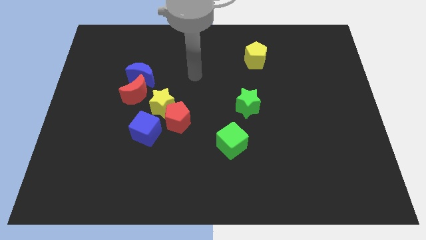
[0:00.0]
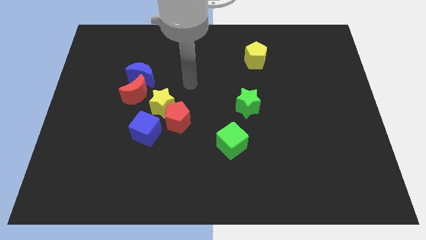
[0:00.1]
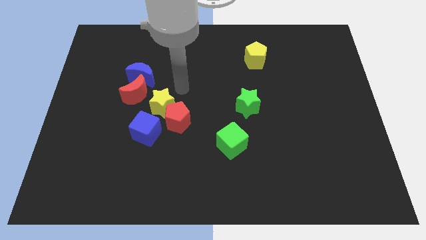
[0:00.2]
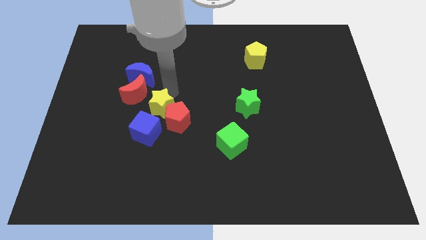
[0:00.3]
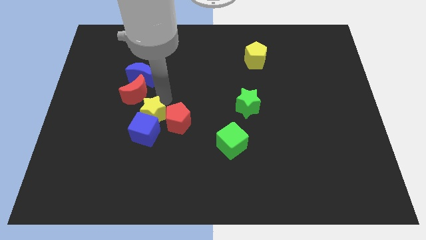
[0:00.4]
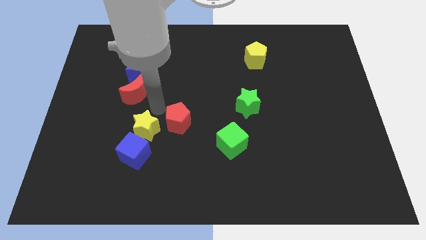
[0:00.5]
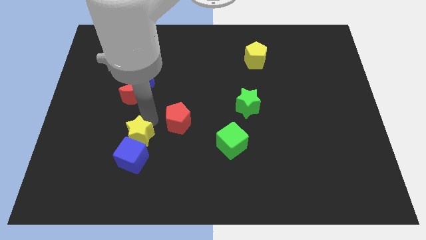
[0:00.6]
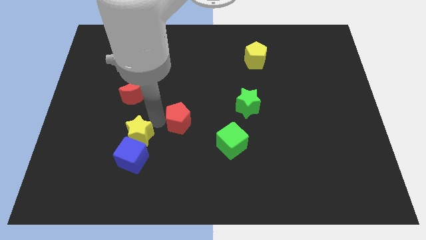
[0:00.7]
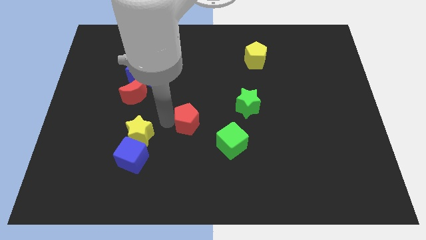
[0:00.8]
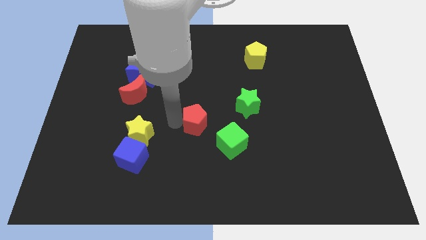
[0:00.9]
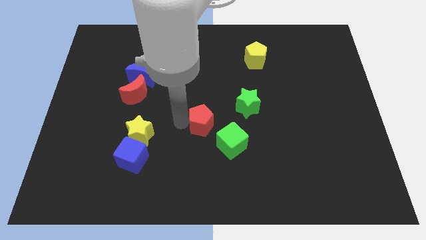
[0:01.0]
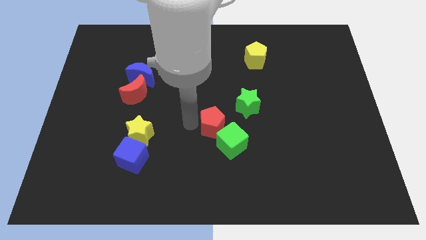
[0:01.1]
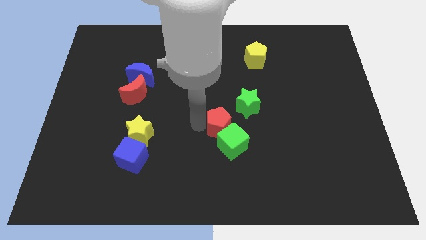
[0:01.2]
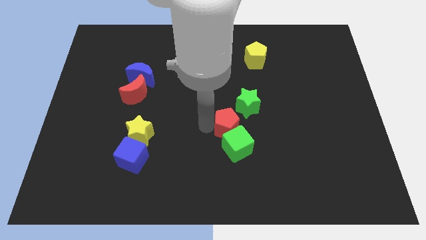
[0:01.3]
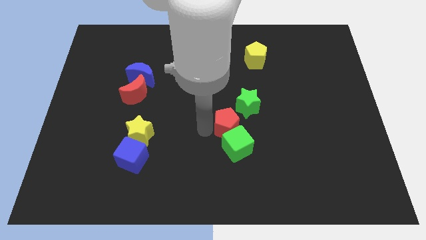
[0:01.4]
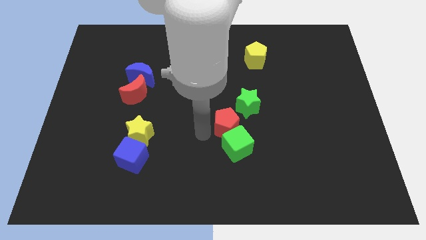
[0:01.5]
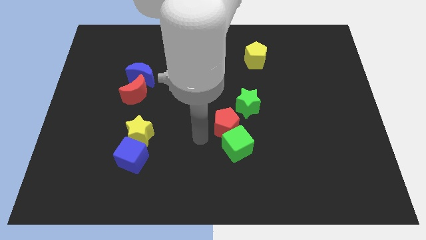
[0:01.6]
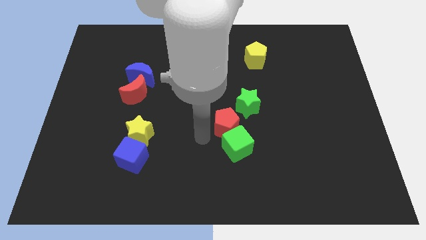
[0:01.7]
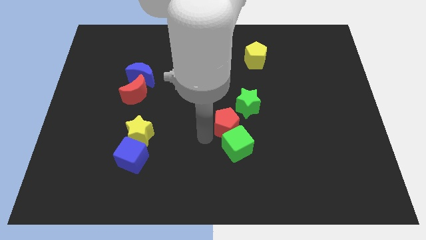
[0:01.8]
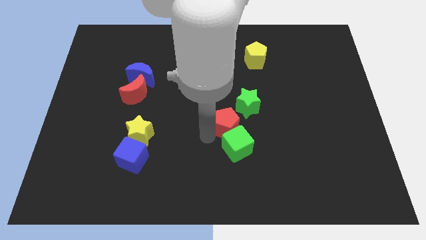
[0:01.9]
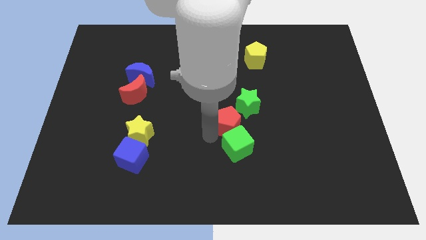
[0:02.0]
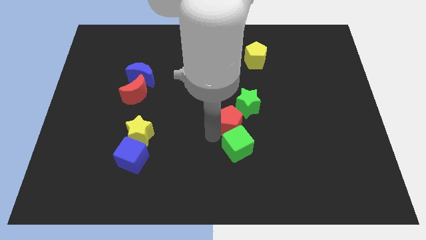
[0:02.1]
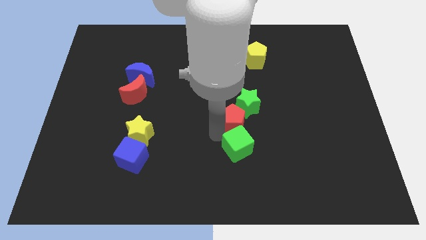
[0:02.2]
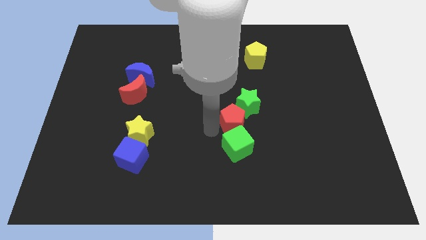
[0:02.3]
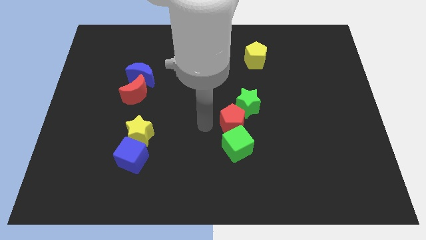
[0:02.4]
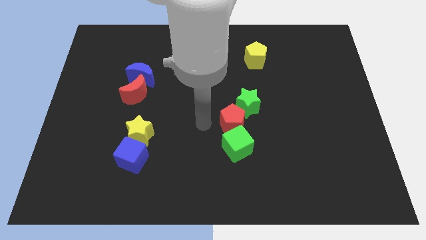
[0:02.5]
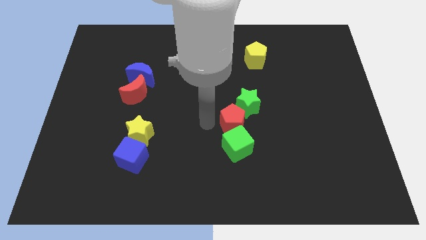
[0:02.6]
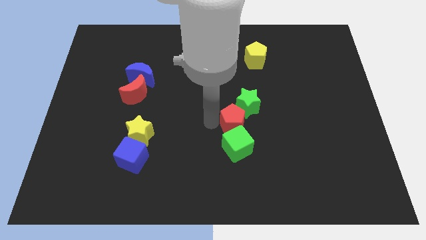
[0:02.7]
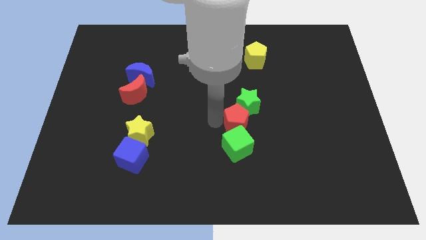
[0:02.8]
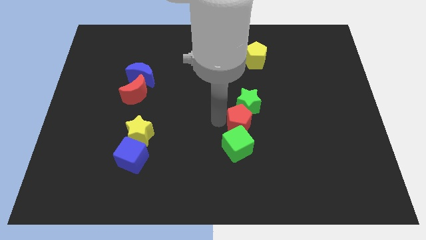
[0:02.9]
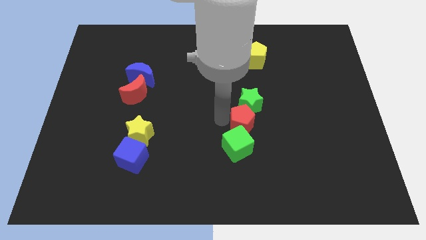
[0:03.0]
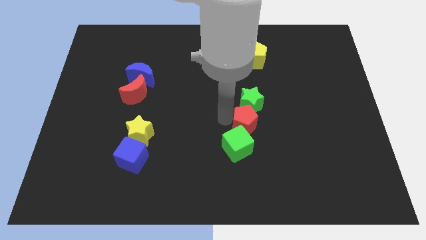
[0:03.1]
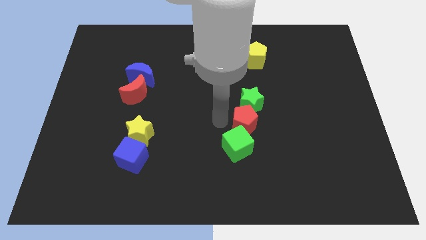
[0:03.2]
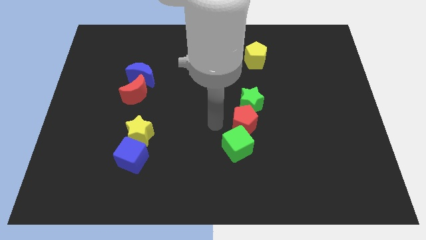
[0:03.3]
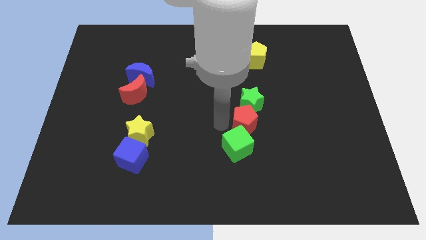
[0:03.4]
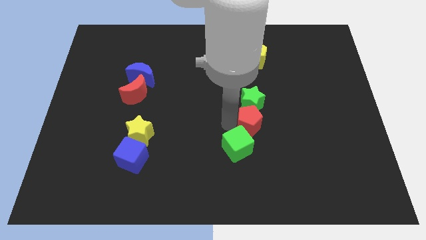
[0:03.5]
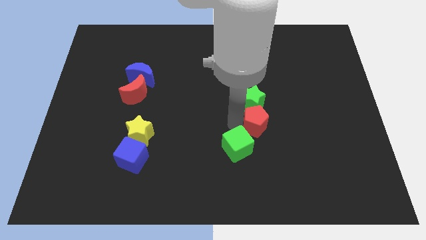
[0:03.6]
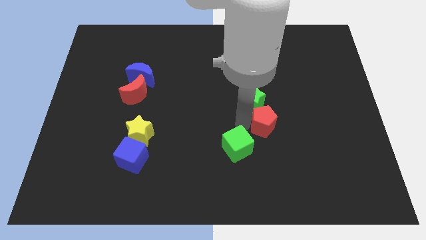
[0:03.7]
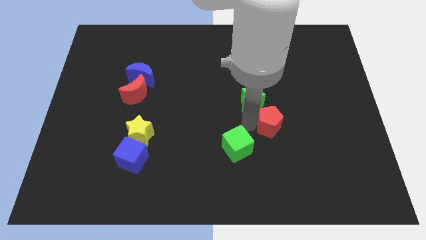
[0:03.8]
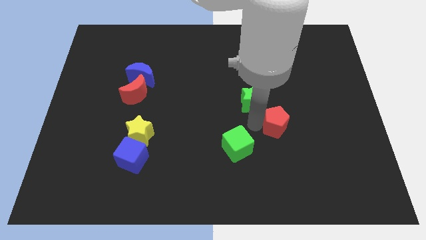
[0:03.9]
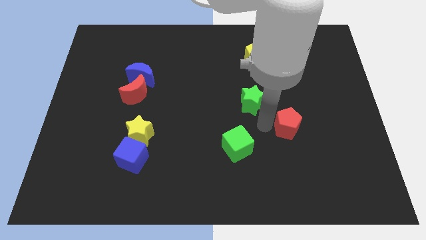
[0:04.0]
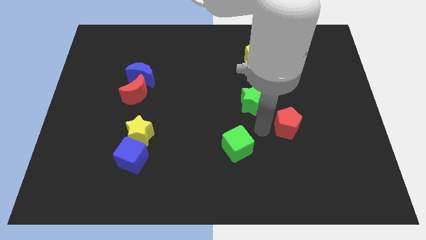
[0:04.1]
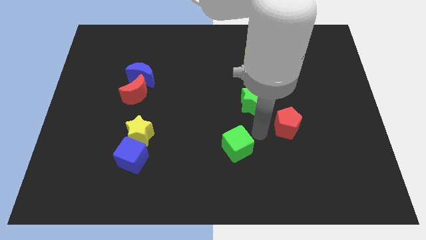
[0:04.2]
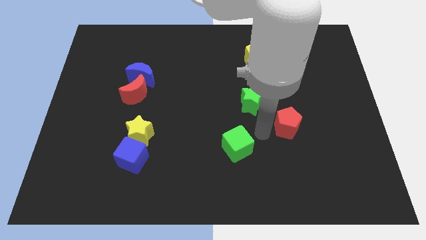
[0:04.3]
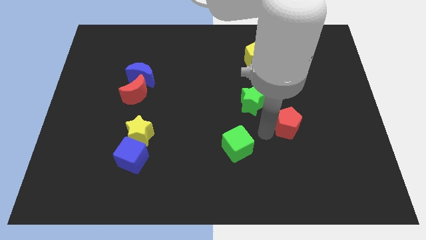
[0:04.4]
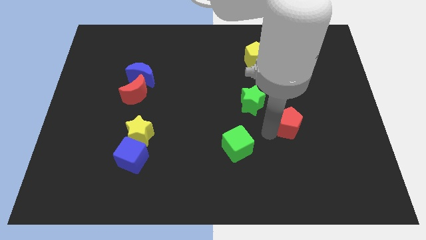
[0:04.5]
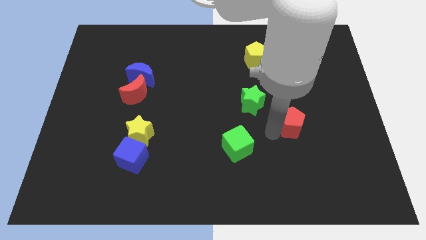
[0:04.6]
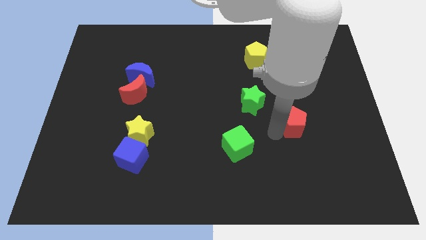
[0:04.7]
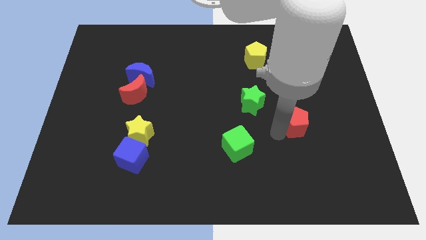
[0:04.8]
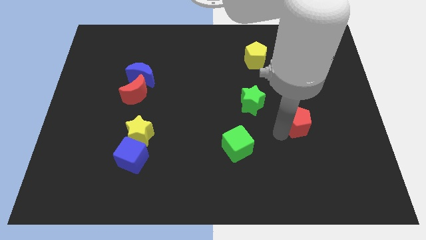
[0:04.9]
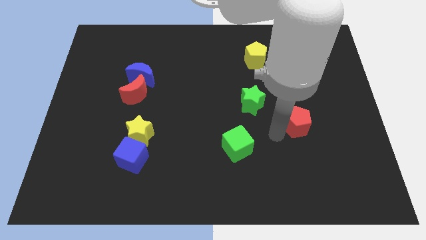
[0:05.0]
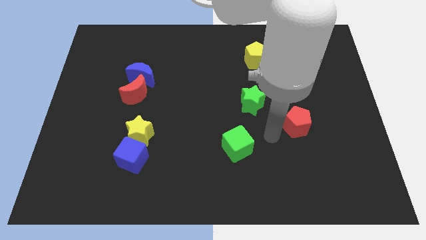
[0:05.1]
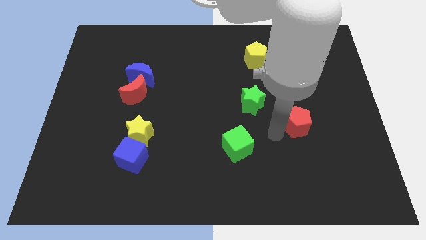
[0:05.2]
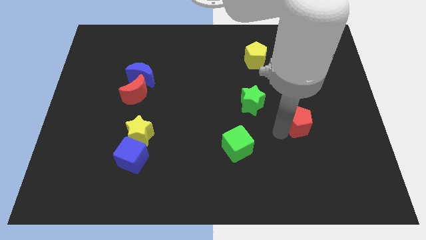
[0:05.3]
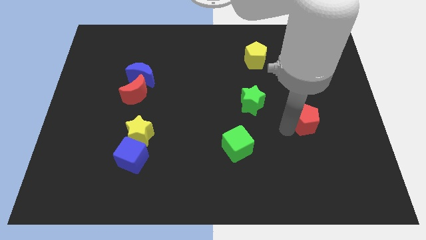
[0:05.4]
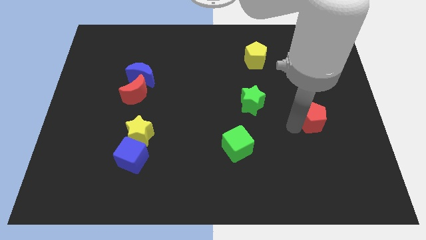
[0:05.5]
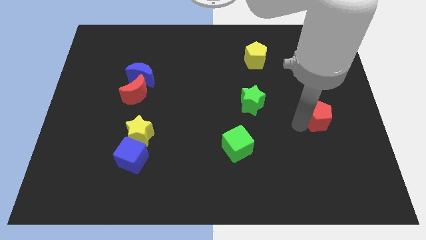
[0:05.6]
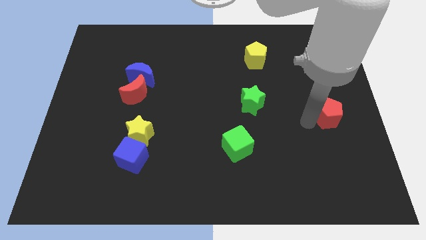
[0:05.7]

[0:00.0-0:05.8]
slide the red pentagon to the right side

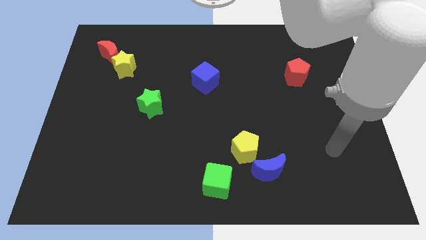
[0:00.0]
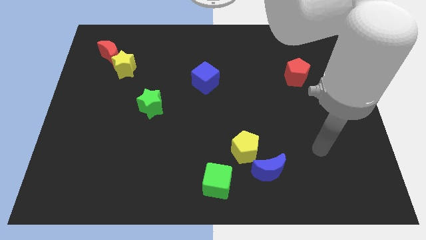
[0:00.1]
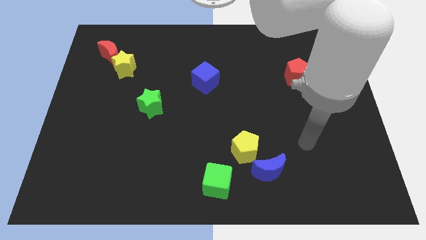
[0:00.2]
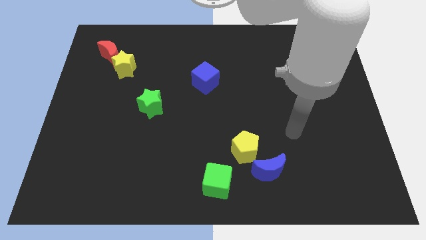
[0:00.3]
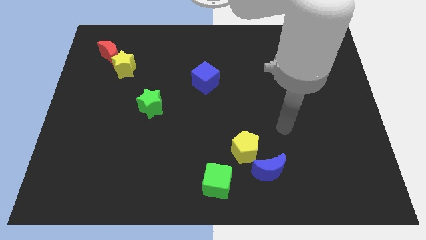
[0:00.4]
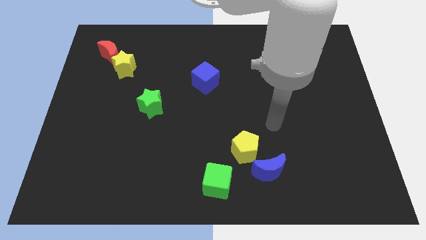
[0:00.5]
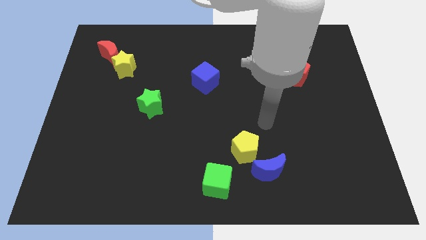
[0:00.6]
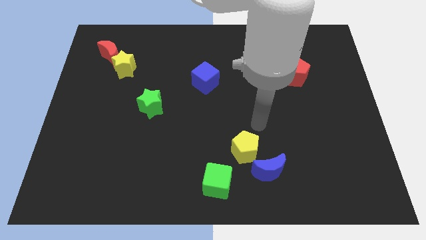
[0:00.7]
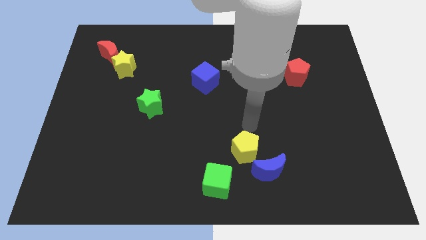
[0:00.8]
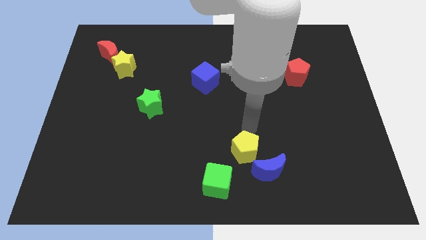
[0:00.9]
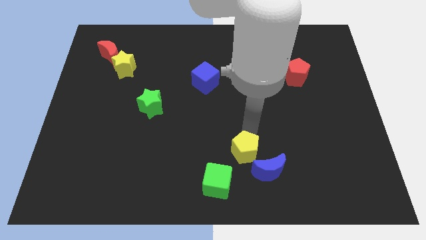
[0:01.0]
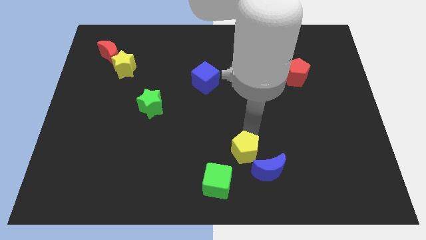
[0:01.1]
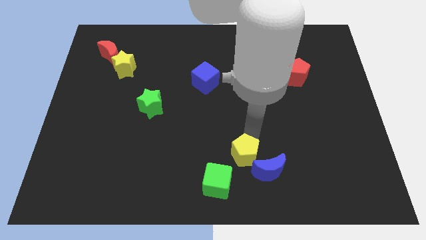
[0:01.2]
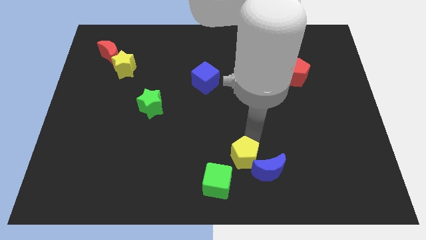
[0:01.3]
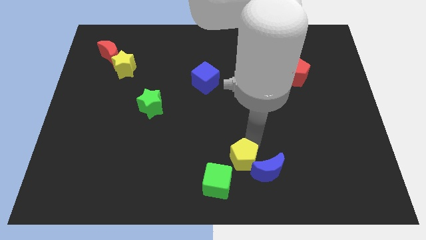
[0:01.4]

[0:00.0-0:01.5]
push the yellow pentagon to the bottom
